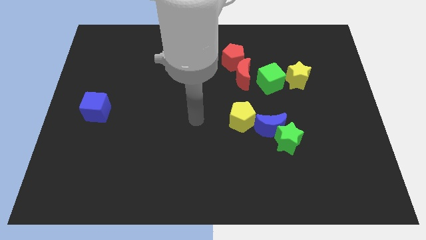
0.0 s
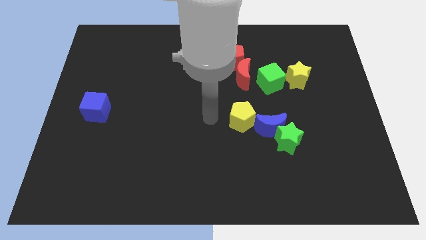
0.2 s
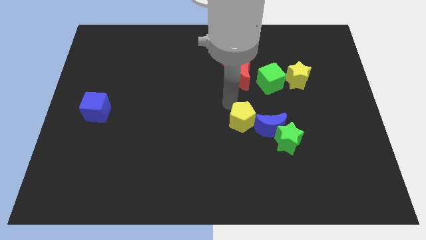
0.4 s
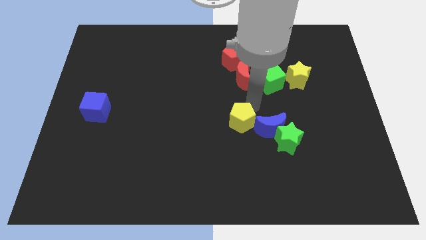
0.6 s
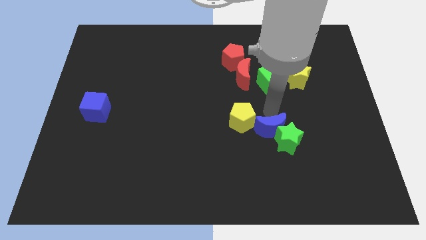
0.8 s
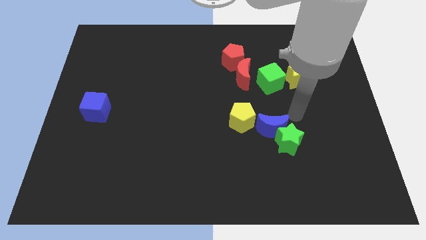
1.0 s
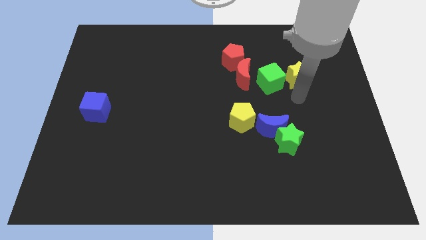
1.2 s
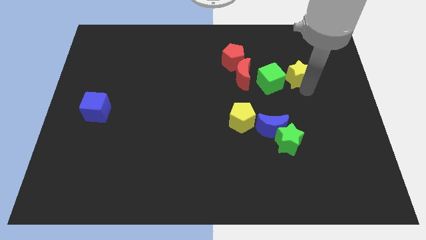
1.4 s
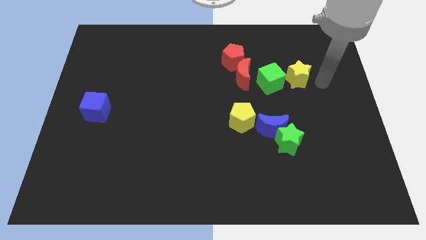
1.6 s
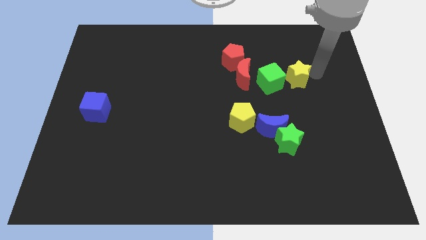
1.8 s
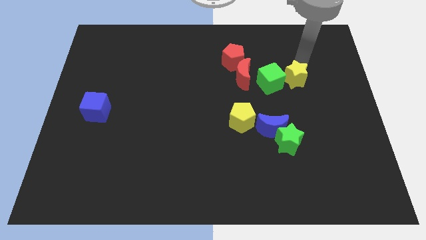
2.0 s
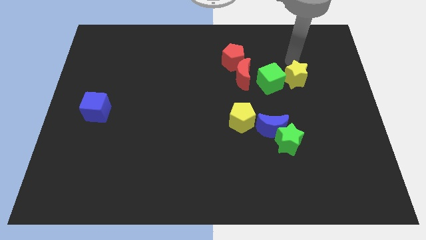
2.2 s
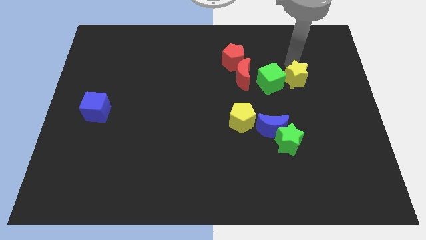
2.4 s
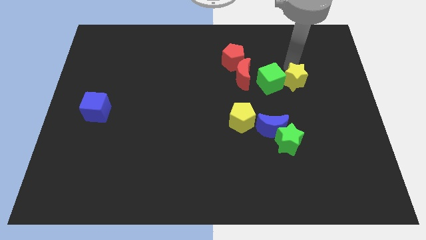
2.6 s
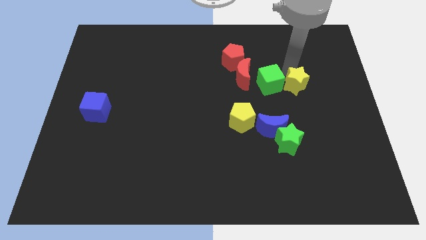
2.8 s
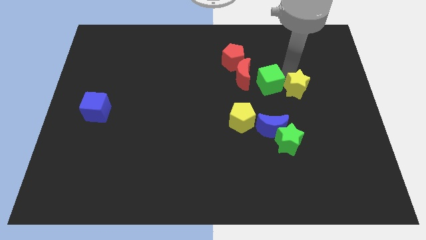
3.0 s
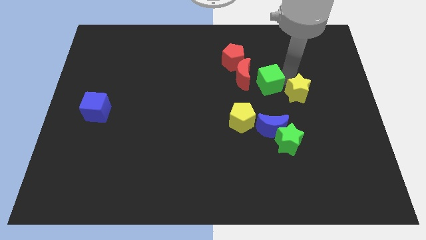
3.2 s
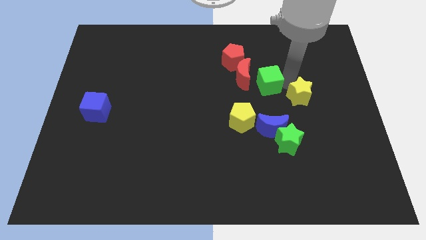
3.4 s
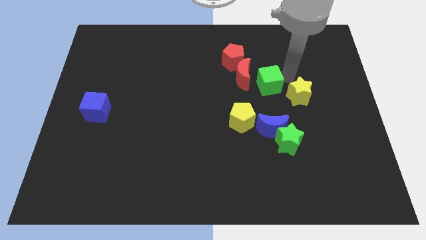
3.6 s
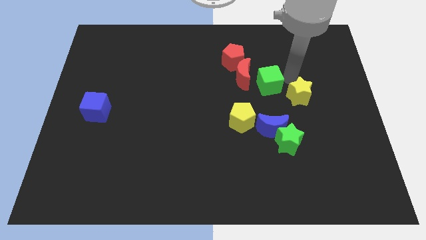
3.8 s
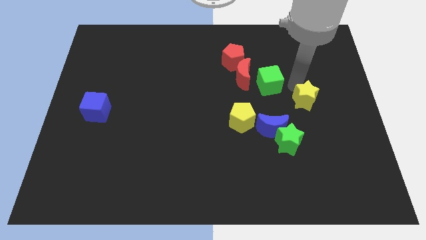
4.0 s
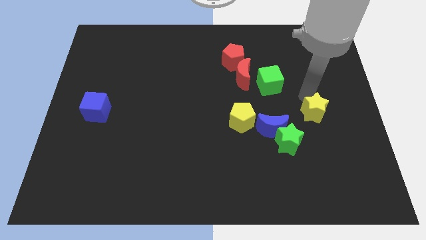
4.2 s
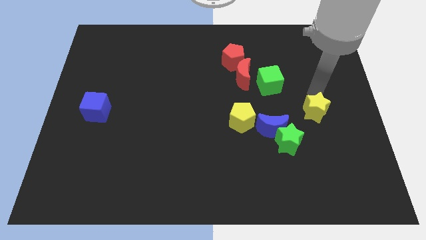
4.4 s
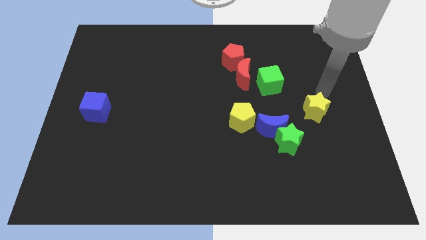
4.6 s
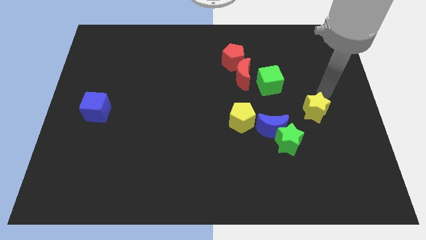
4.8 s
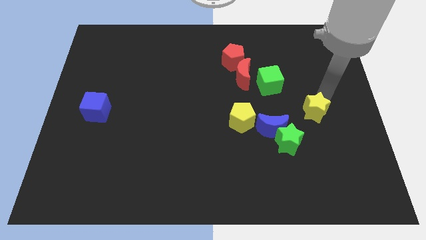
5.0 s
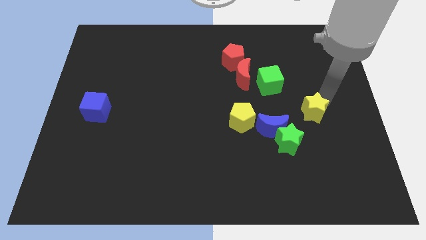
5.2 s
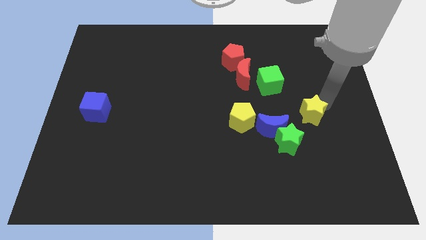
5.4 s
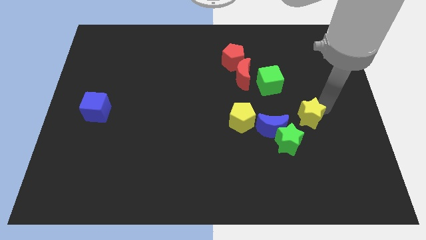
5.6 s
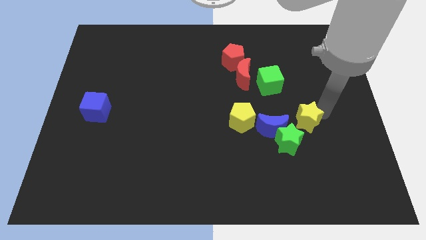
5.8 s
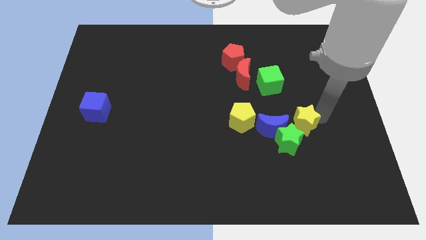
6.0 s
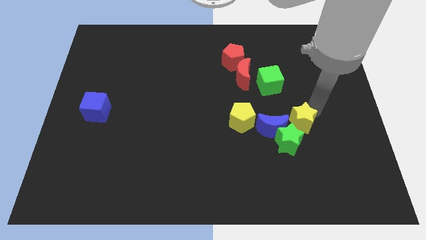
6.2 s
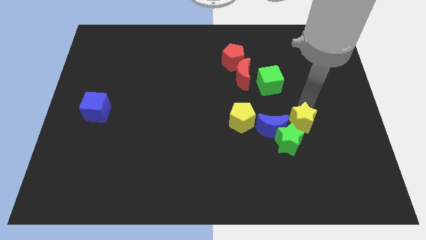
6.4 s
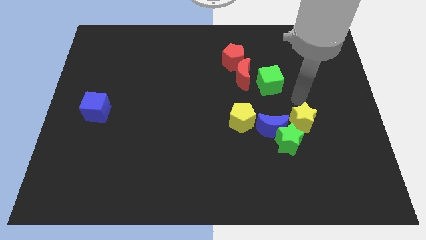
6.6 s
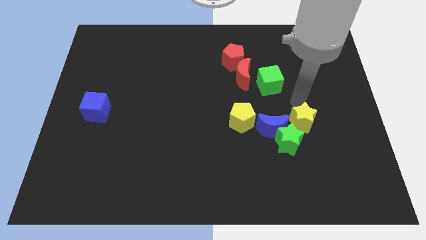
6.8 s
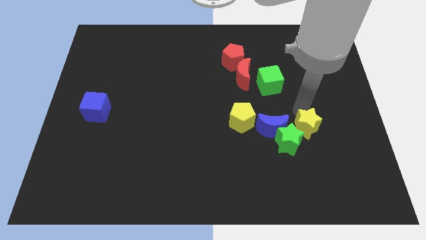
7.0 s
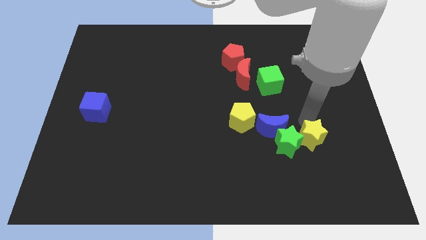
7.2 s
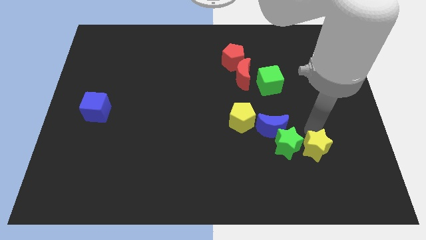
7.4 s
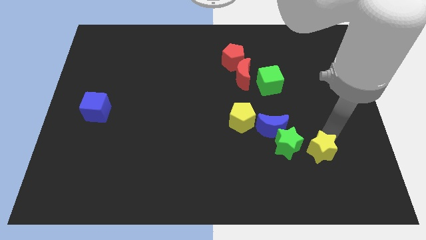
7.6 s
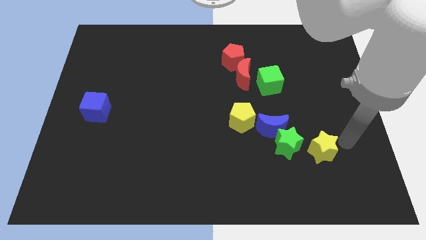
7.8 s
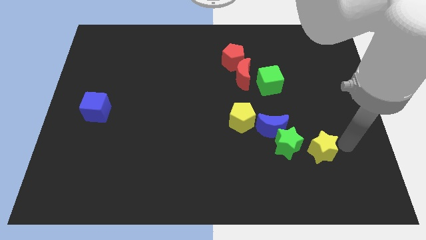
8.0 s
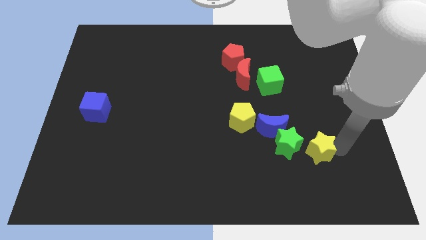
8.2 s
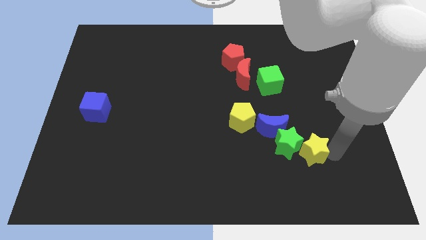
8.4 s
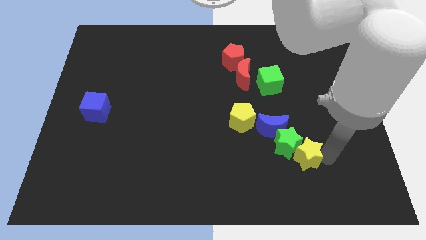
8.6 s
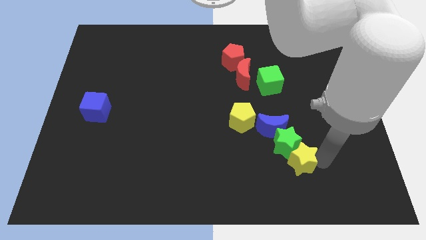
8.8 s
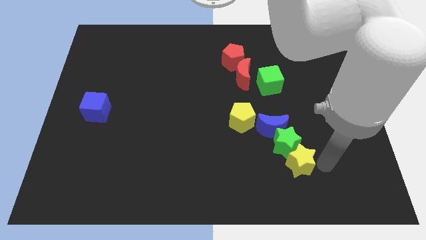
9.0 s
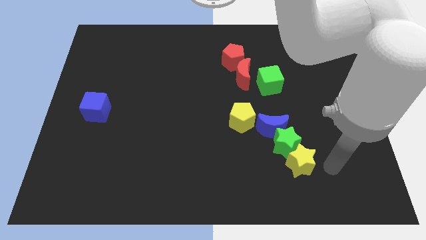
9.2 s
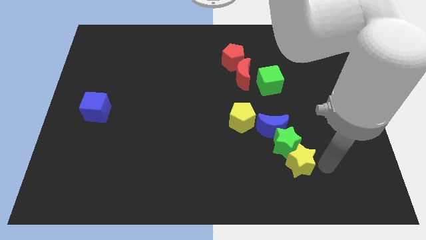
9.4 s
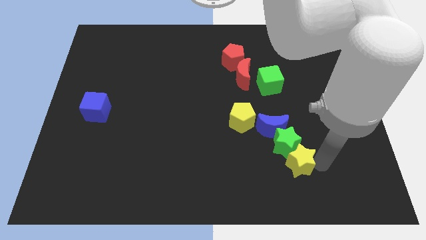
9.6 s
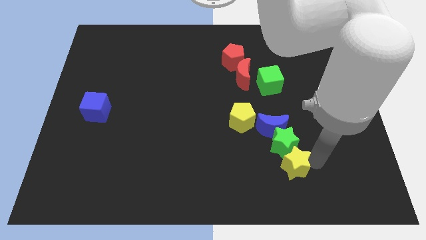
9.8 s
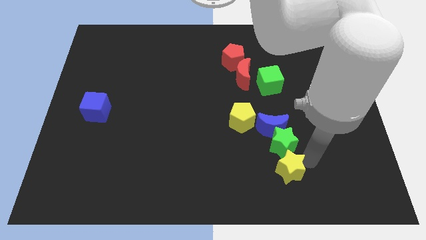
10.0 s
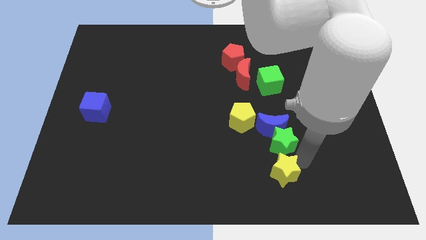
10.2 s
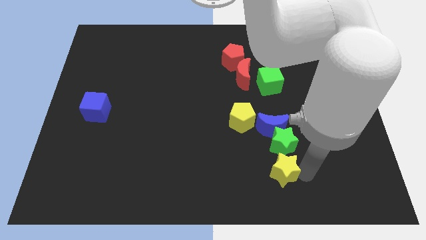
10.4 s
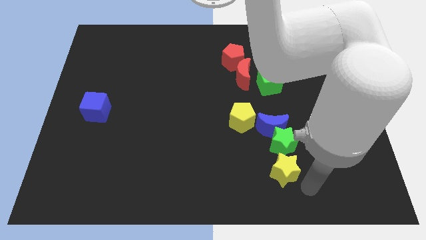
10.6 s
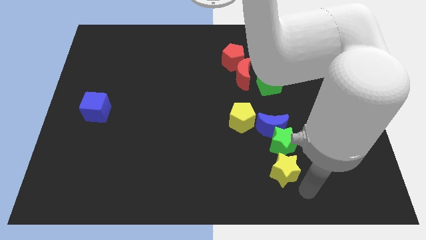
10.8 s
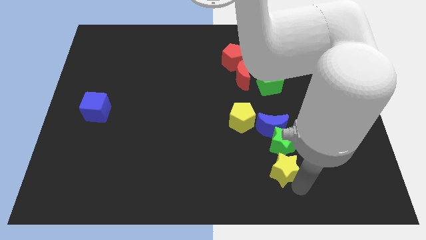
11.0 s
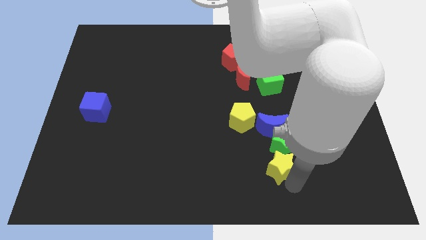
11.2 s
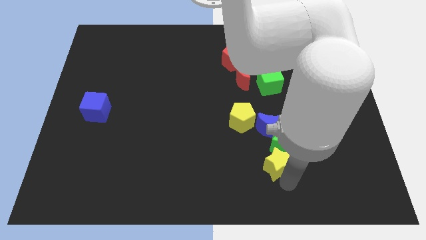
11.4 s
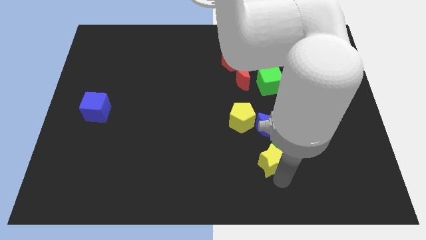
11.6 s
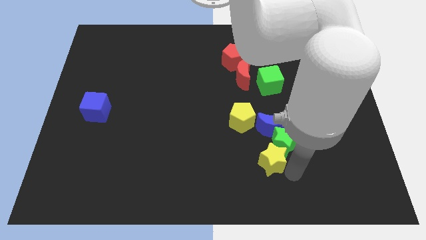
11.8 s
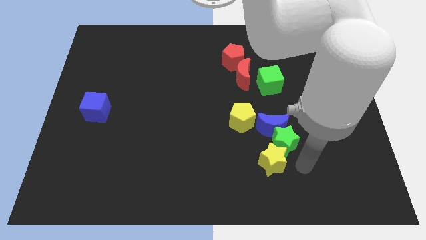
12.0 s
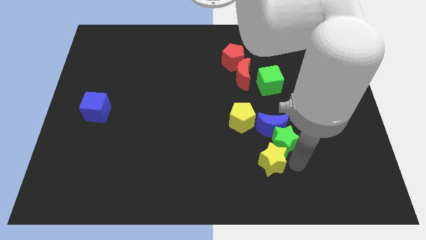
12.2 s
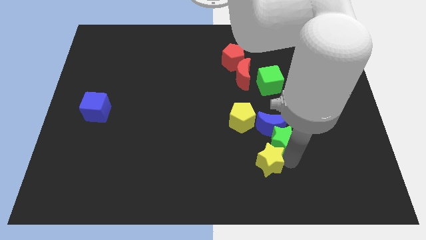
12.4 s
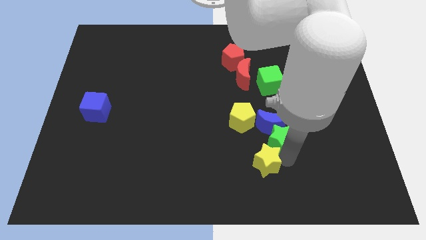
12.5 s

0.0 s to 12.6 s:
slide the yellow star to the bottom side of the yellow pentagon
